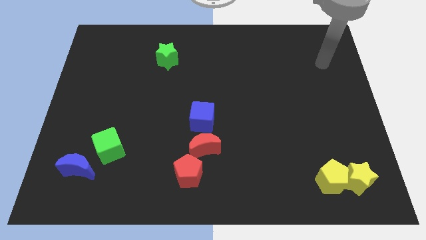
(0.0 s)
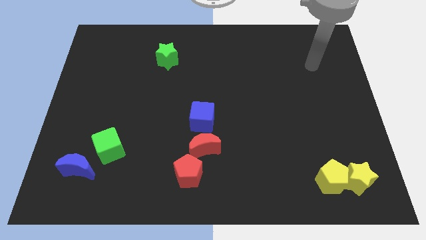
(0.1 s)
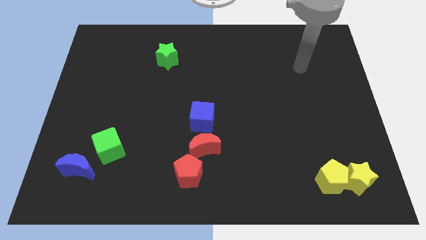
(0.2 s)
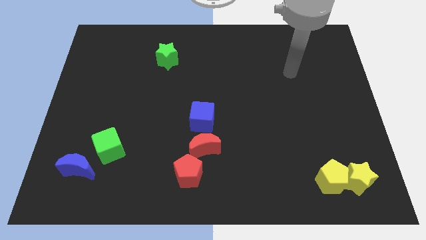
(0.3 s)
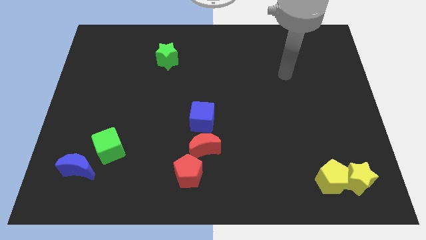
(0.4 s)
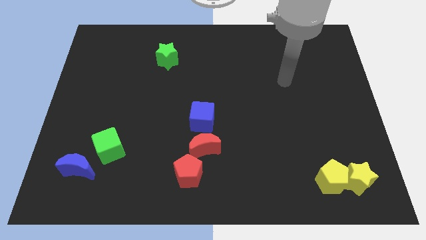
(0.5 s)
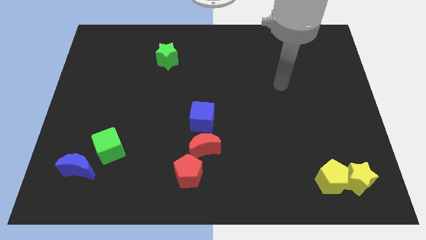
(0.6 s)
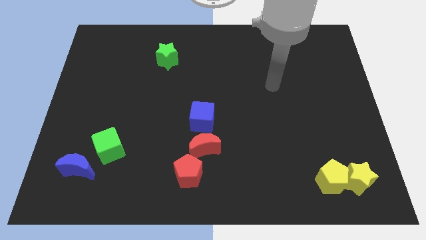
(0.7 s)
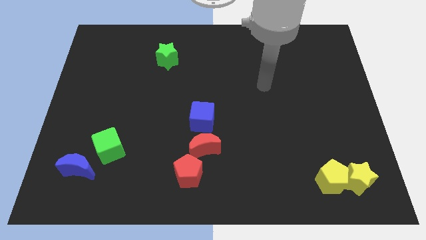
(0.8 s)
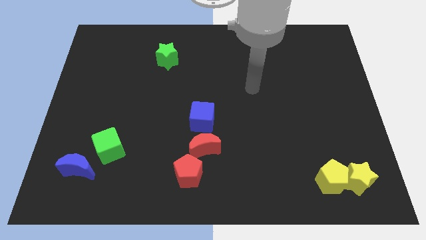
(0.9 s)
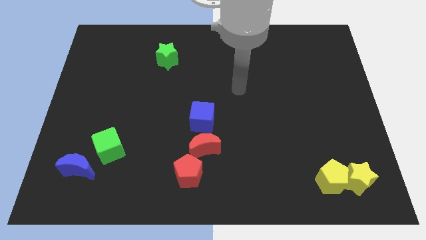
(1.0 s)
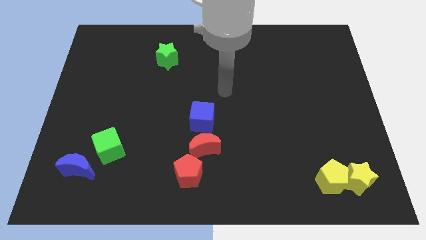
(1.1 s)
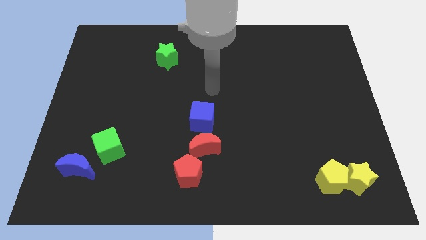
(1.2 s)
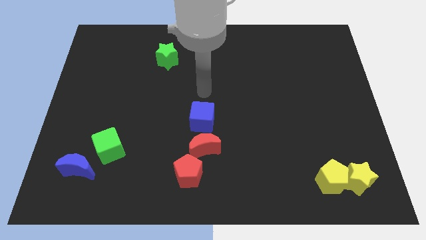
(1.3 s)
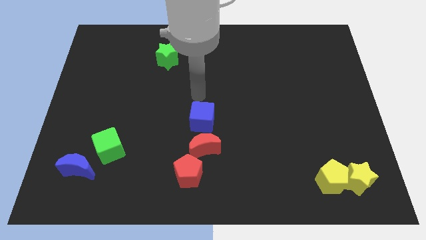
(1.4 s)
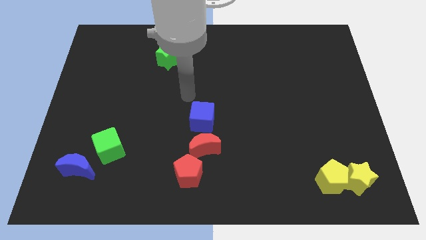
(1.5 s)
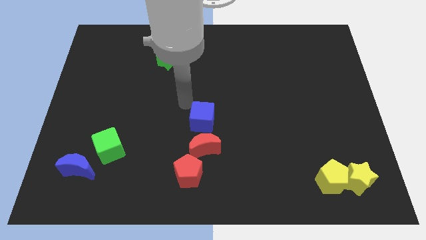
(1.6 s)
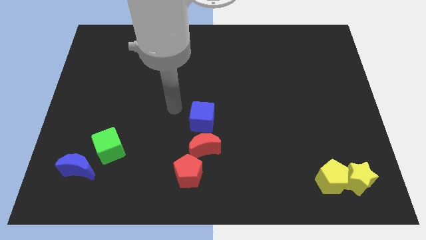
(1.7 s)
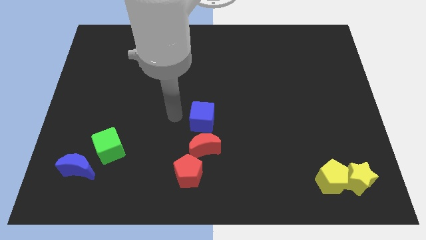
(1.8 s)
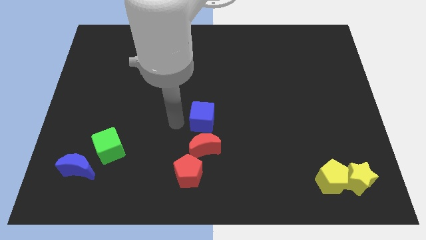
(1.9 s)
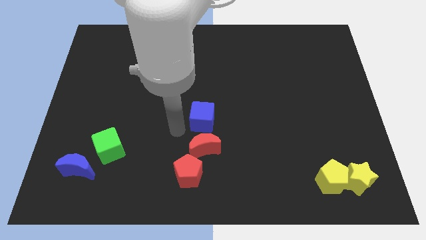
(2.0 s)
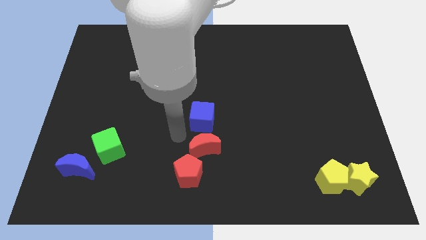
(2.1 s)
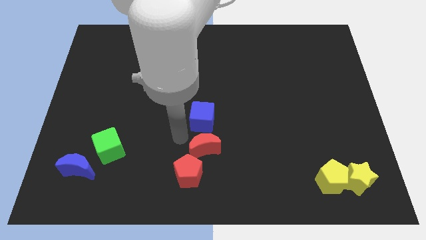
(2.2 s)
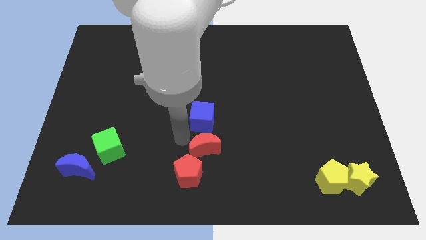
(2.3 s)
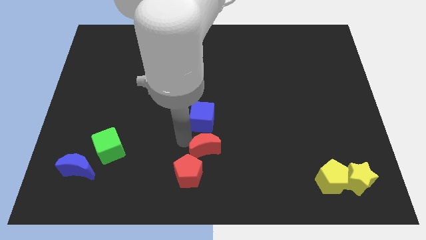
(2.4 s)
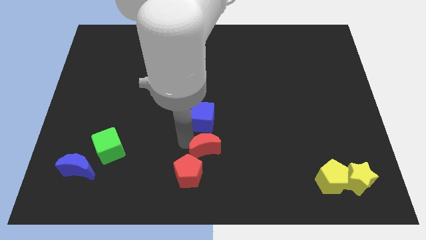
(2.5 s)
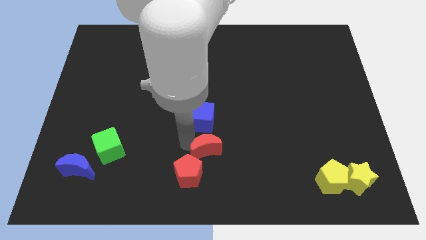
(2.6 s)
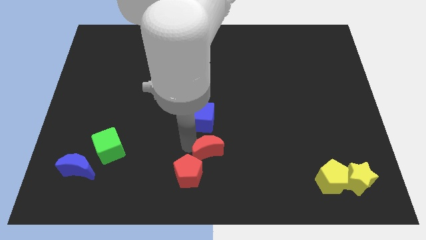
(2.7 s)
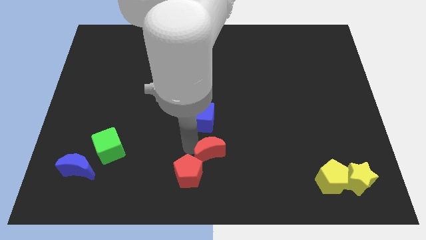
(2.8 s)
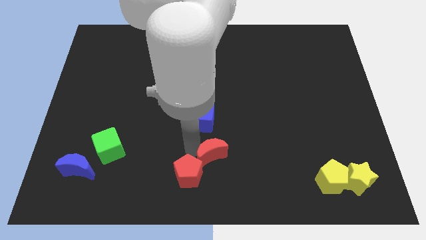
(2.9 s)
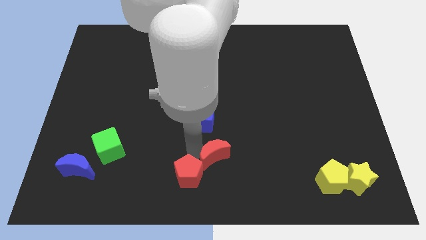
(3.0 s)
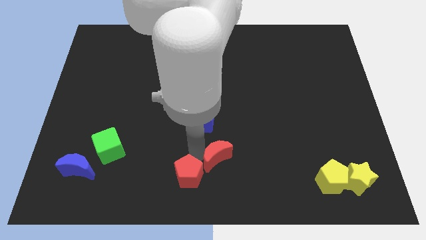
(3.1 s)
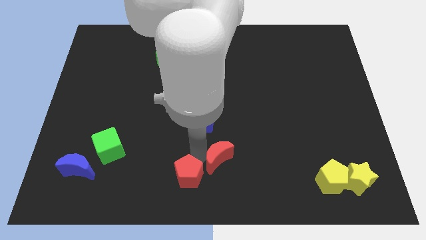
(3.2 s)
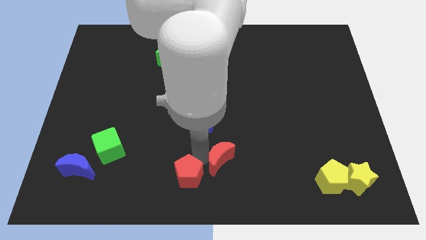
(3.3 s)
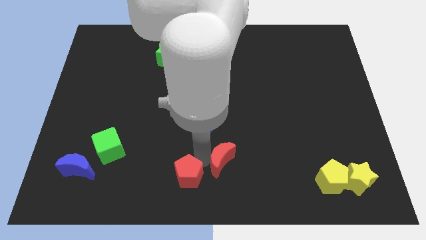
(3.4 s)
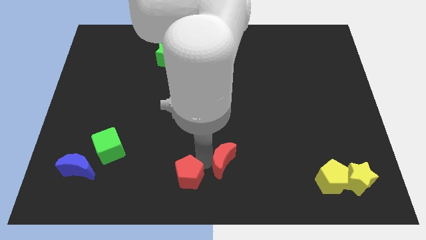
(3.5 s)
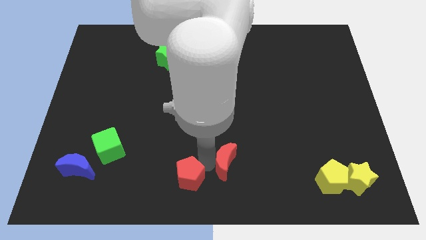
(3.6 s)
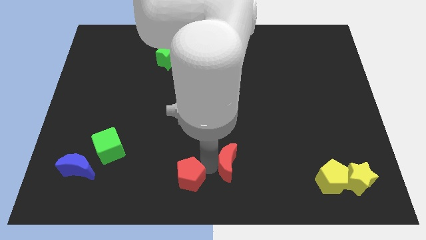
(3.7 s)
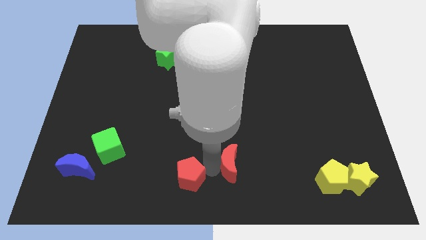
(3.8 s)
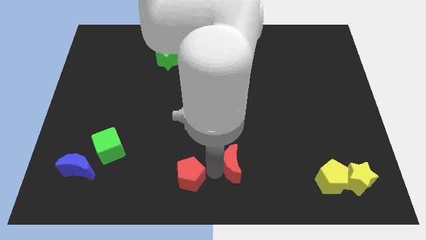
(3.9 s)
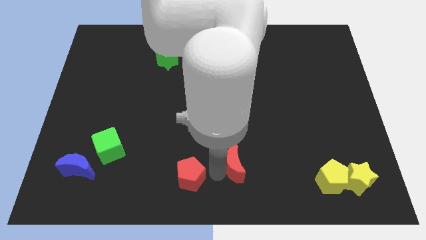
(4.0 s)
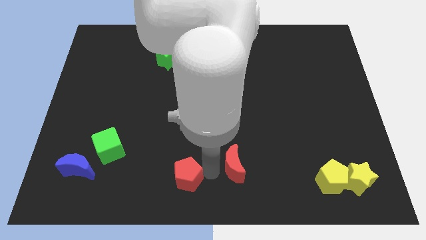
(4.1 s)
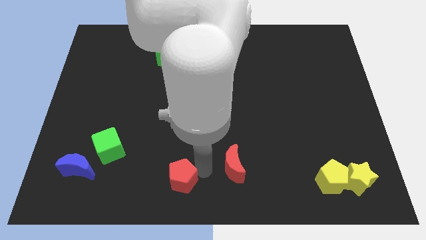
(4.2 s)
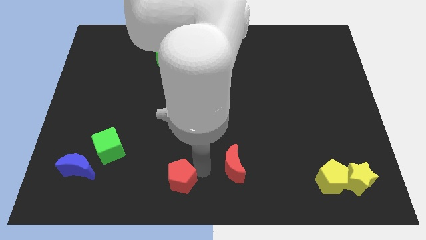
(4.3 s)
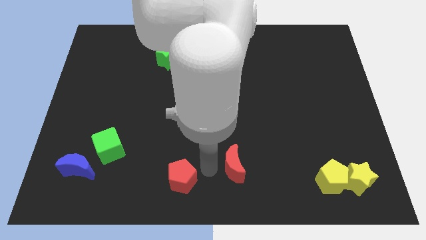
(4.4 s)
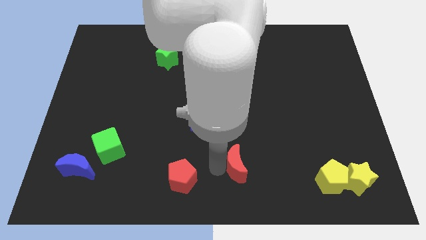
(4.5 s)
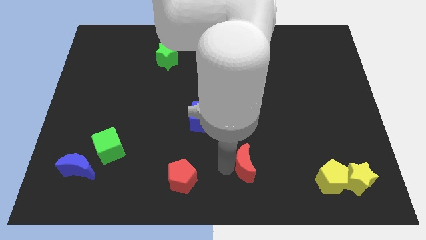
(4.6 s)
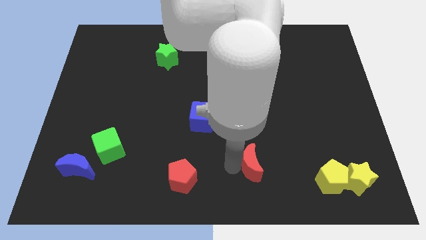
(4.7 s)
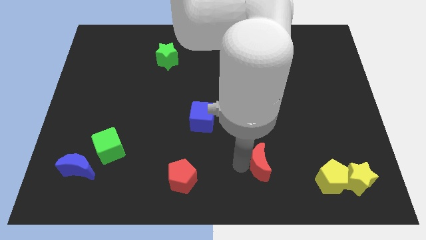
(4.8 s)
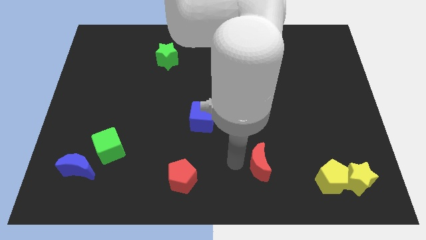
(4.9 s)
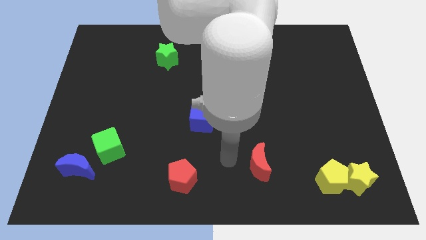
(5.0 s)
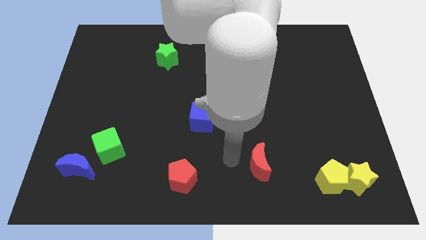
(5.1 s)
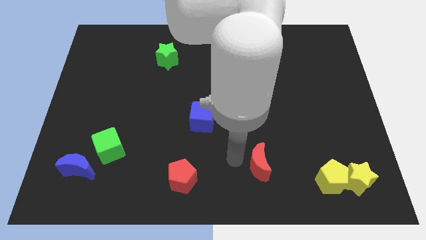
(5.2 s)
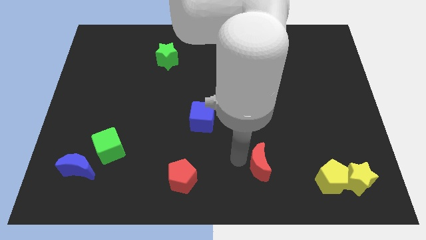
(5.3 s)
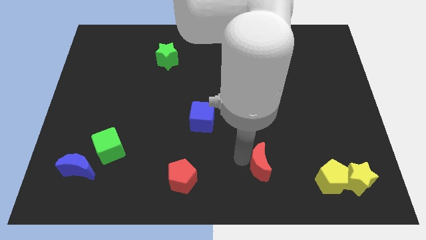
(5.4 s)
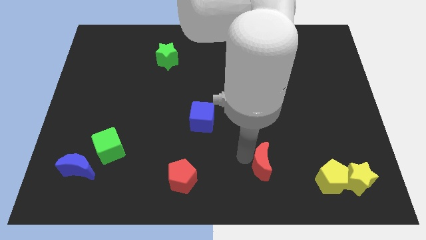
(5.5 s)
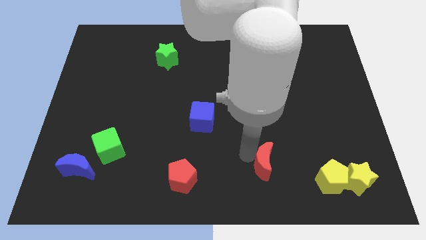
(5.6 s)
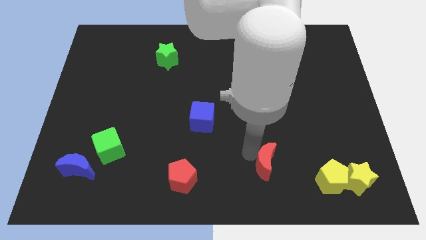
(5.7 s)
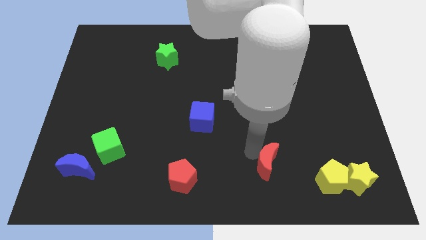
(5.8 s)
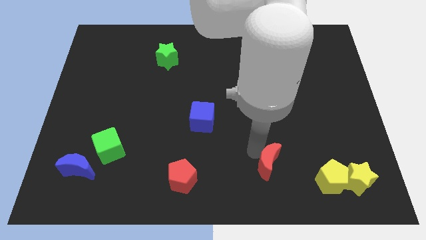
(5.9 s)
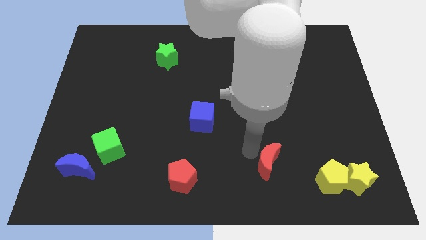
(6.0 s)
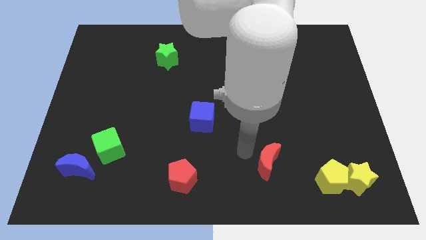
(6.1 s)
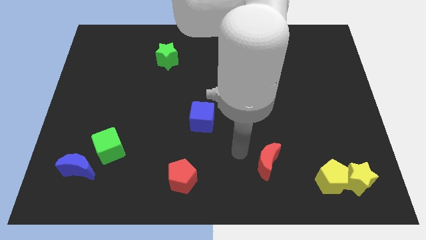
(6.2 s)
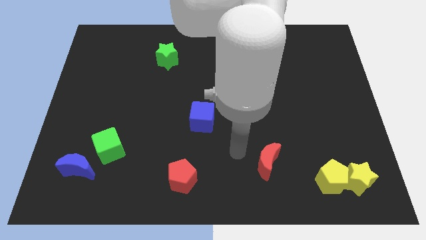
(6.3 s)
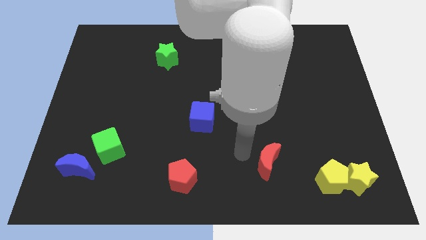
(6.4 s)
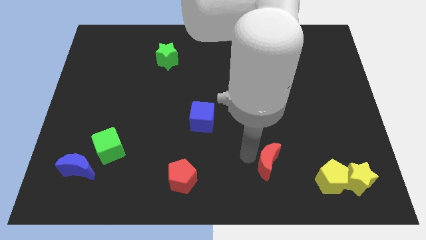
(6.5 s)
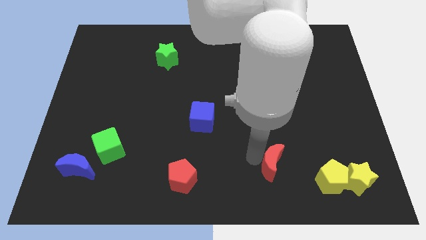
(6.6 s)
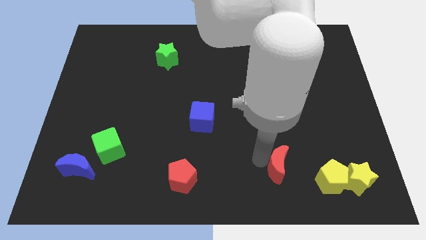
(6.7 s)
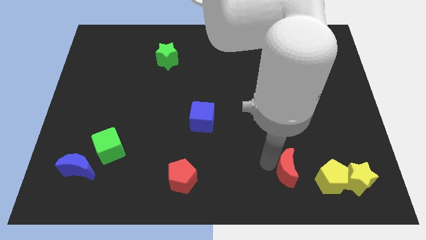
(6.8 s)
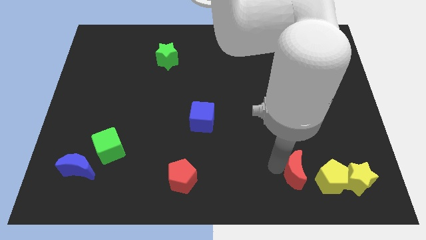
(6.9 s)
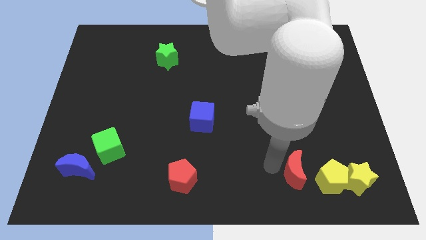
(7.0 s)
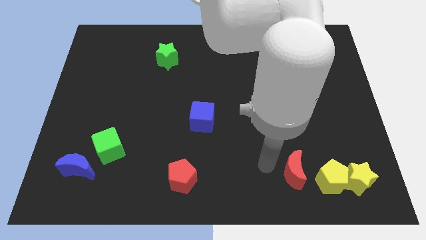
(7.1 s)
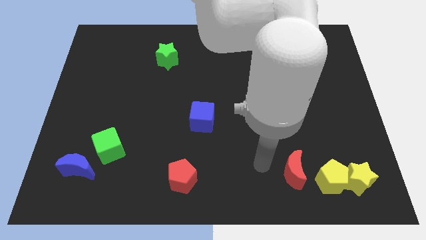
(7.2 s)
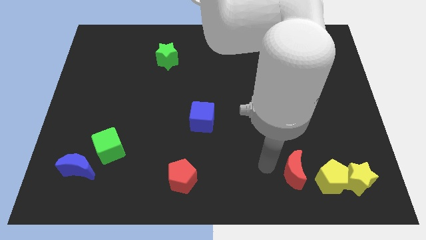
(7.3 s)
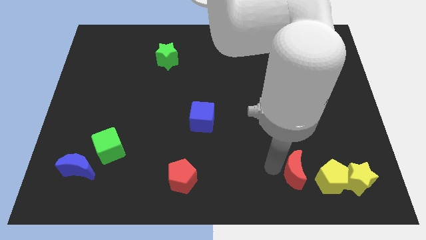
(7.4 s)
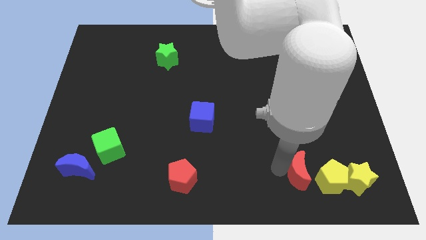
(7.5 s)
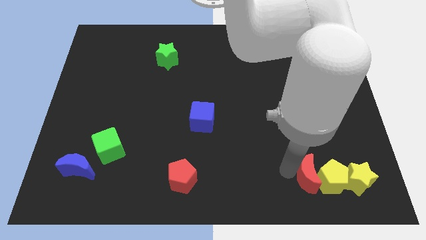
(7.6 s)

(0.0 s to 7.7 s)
move the red moon close to the yellow pentagon

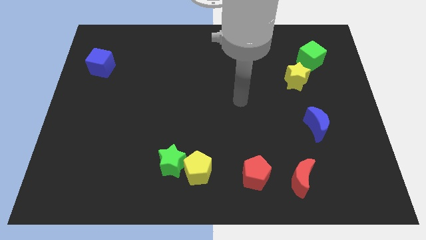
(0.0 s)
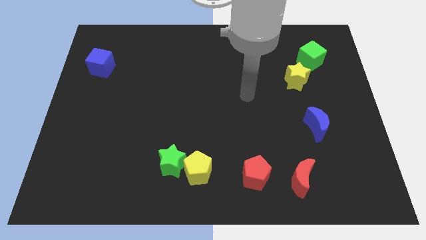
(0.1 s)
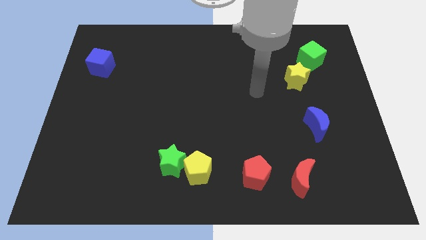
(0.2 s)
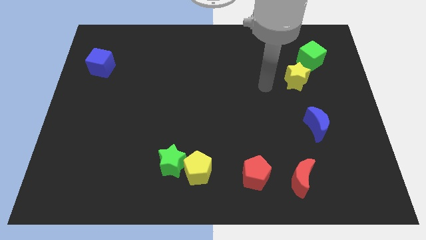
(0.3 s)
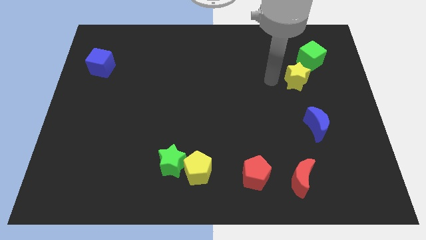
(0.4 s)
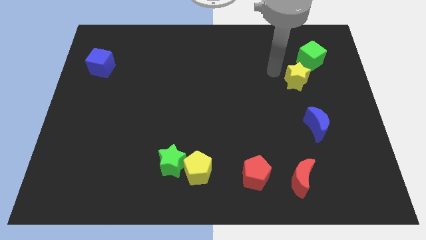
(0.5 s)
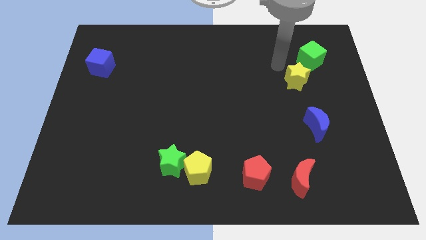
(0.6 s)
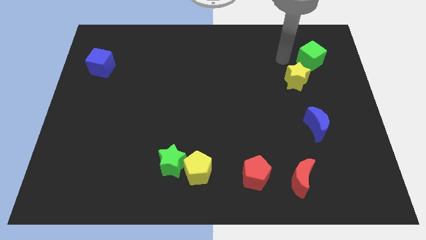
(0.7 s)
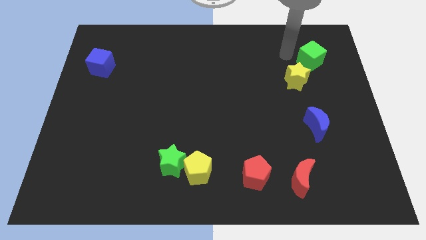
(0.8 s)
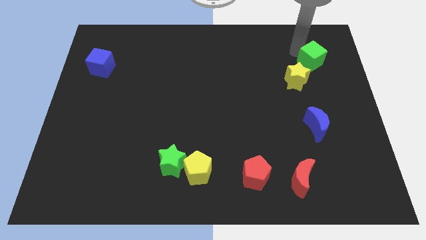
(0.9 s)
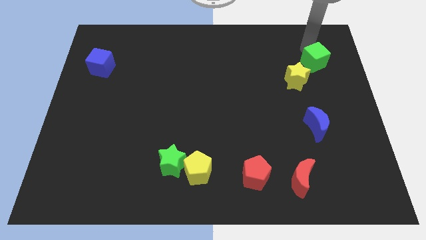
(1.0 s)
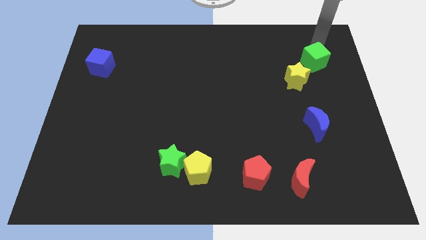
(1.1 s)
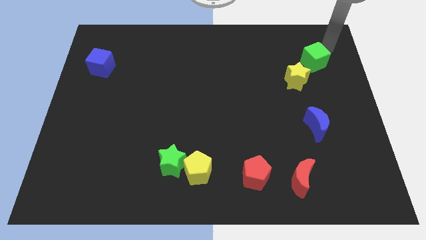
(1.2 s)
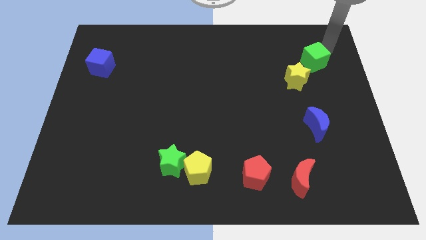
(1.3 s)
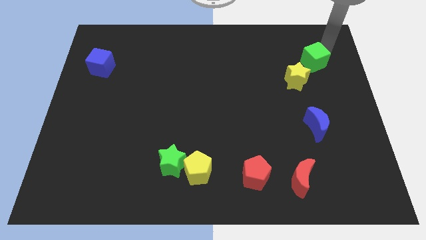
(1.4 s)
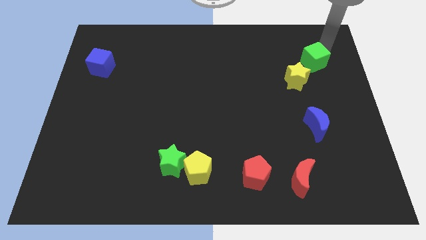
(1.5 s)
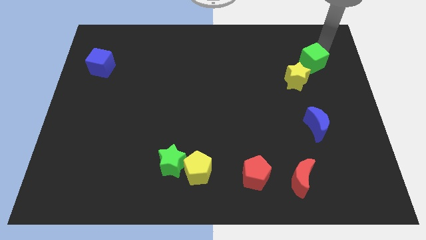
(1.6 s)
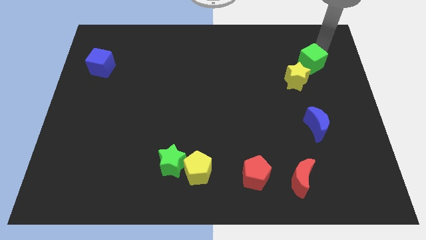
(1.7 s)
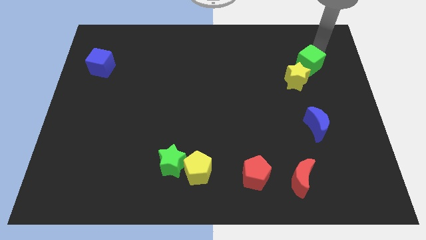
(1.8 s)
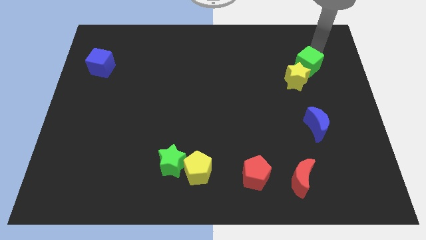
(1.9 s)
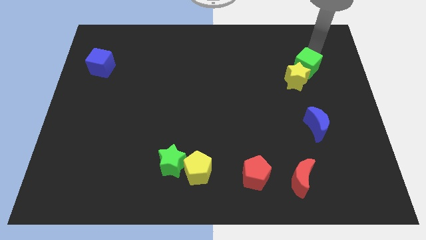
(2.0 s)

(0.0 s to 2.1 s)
push the green cube to the yellow star
